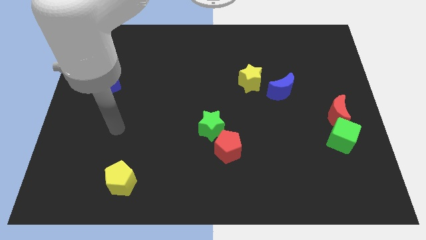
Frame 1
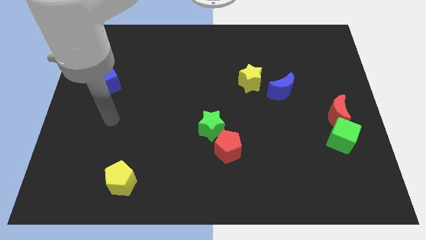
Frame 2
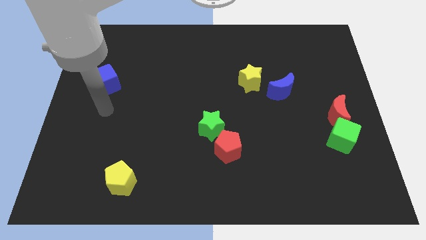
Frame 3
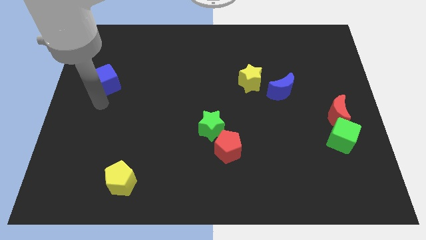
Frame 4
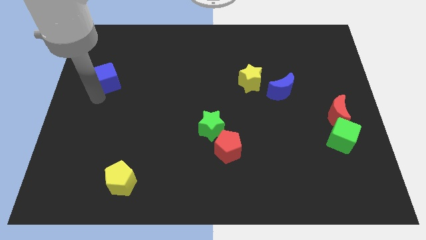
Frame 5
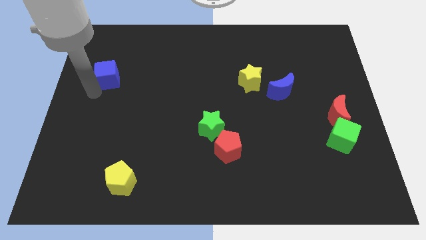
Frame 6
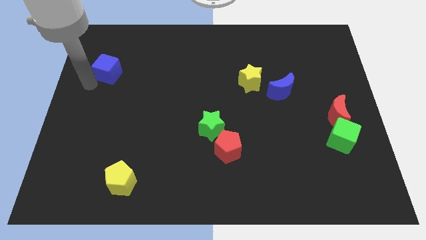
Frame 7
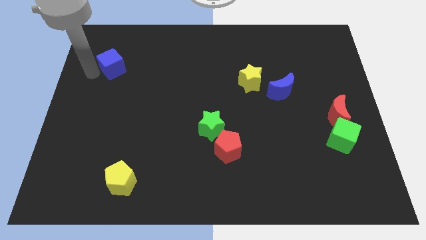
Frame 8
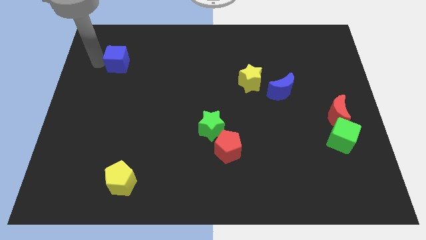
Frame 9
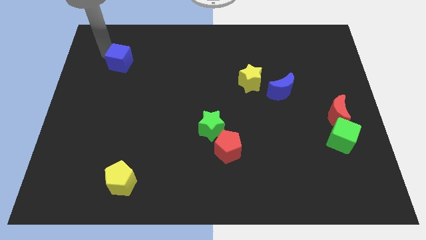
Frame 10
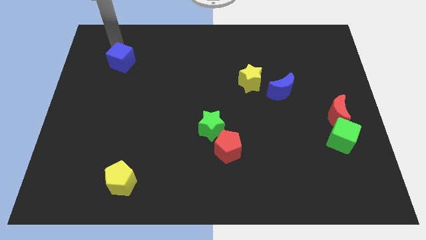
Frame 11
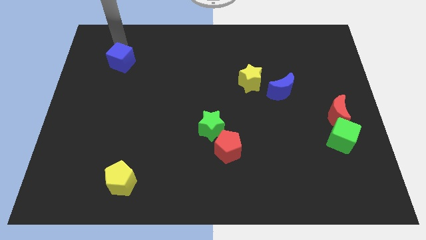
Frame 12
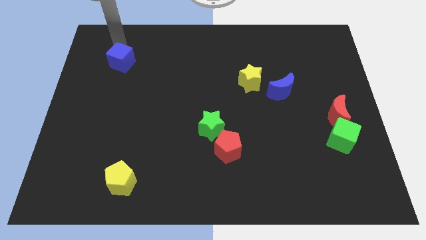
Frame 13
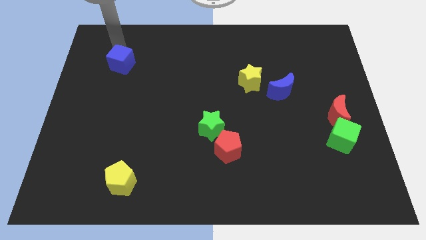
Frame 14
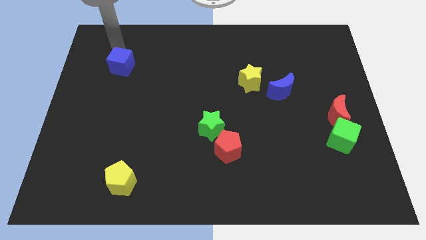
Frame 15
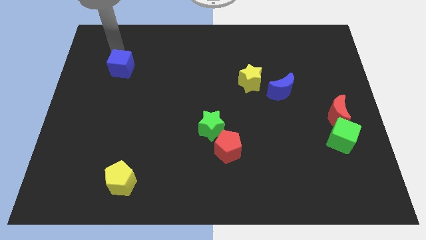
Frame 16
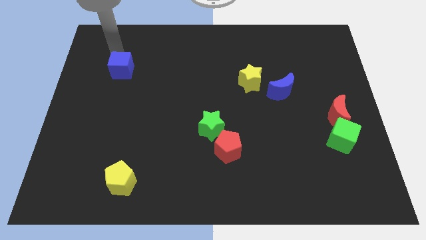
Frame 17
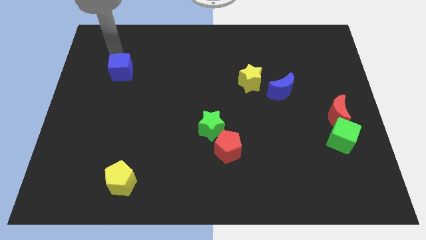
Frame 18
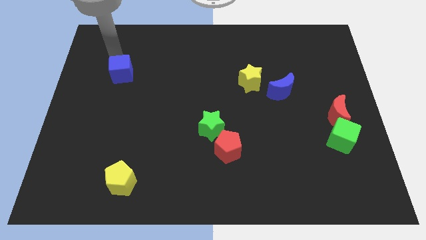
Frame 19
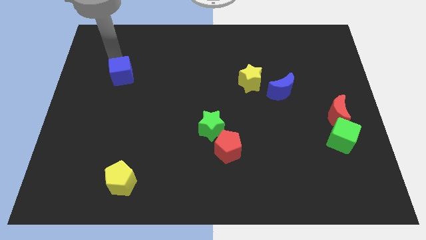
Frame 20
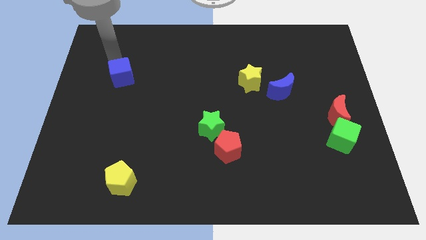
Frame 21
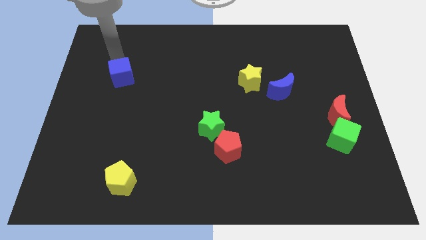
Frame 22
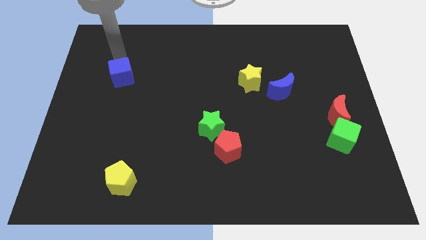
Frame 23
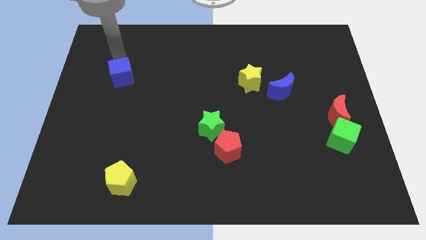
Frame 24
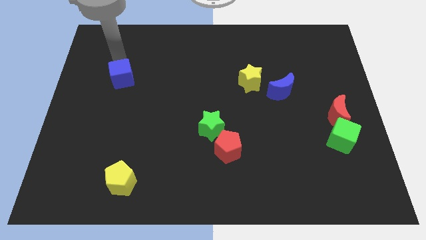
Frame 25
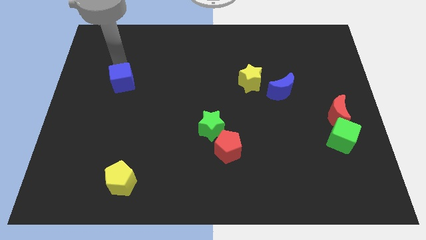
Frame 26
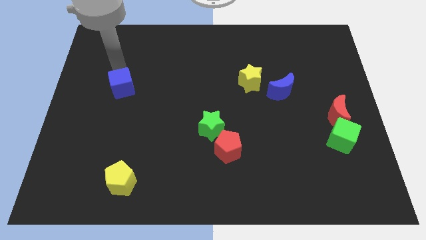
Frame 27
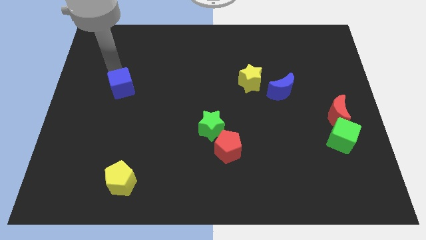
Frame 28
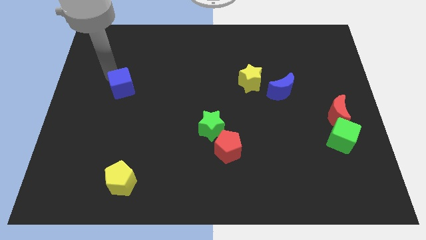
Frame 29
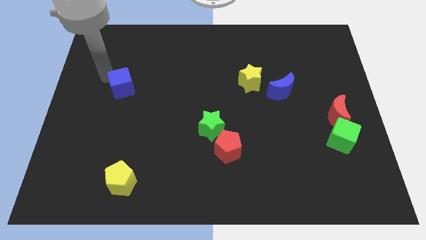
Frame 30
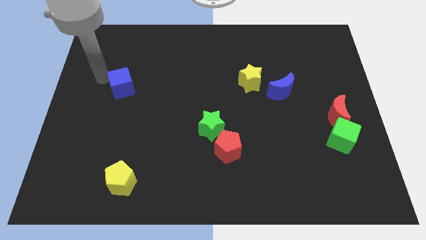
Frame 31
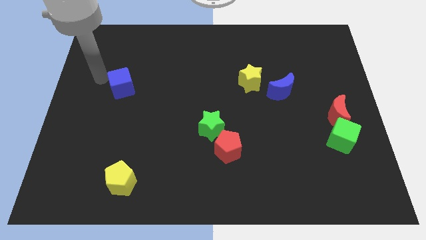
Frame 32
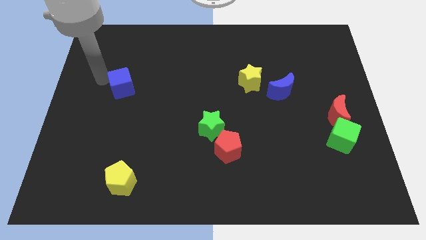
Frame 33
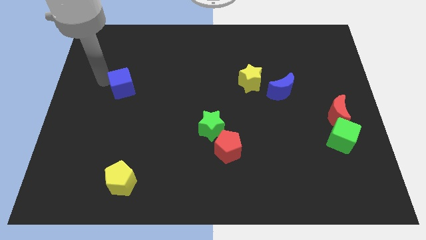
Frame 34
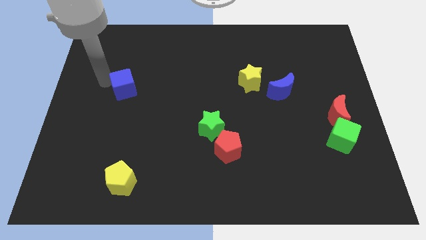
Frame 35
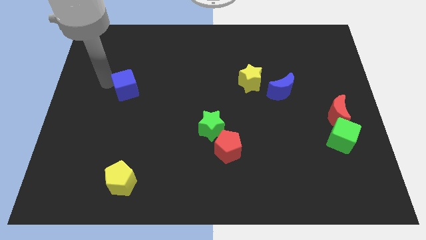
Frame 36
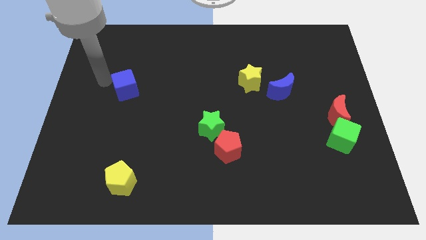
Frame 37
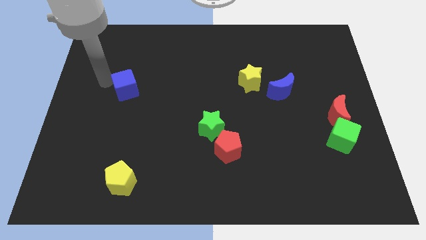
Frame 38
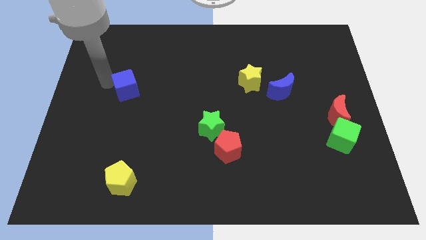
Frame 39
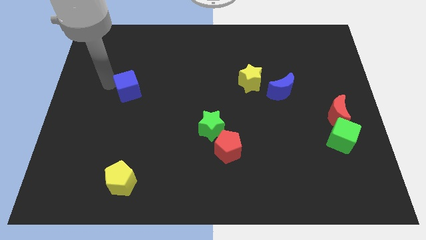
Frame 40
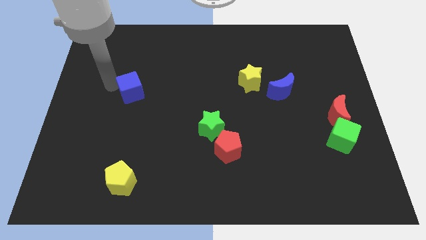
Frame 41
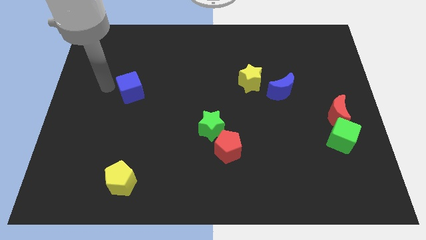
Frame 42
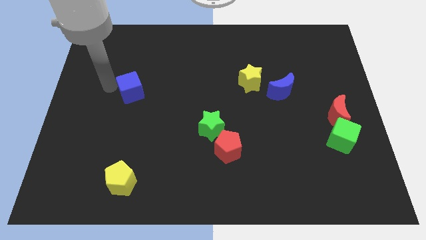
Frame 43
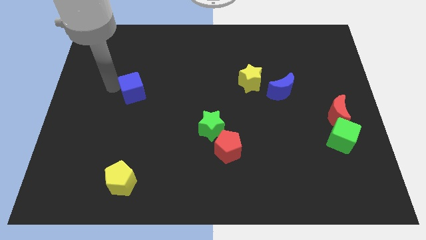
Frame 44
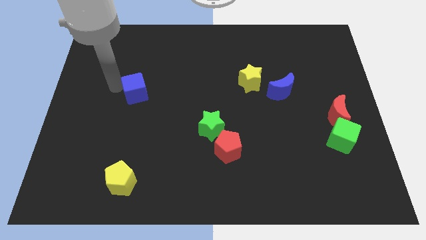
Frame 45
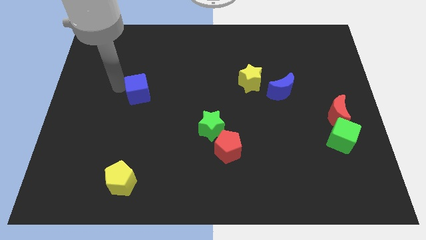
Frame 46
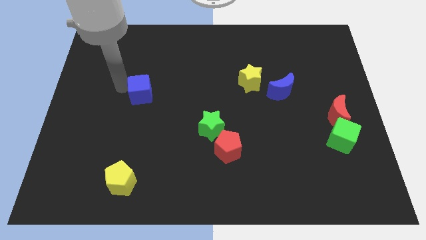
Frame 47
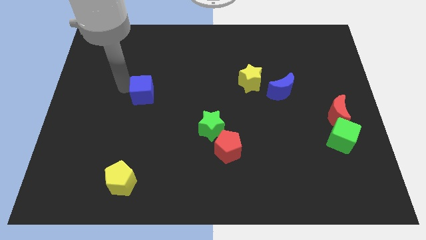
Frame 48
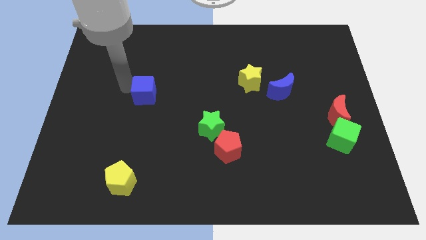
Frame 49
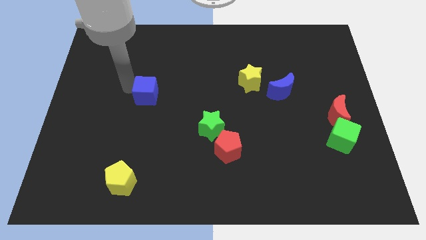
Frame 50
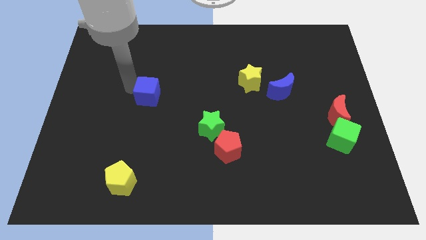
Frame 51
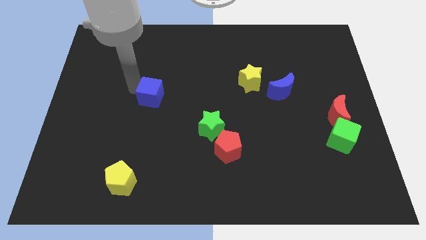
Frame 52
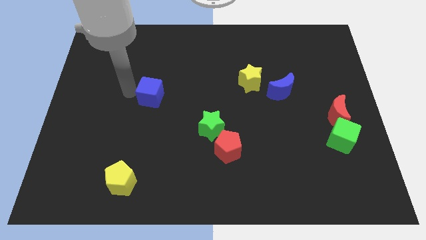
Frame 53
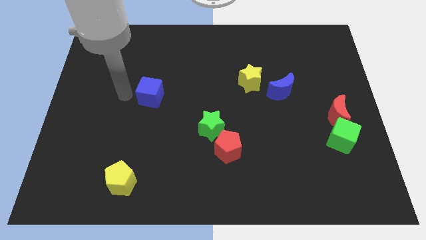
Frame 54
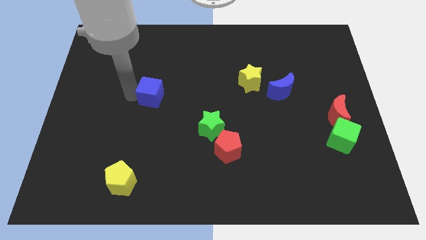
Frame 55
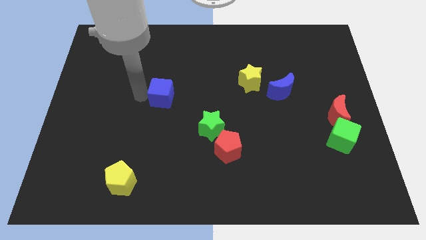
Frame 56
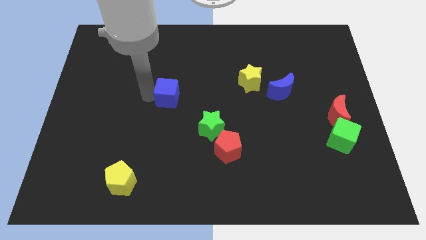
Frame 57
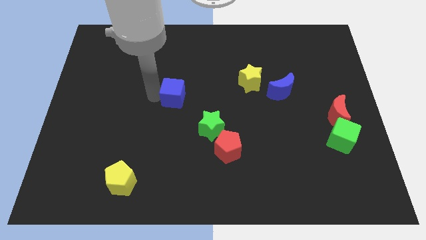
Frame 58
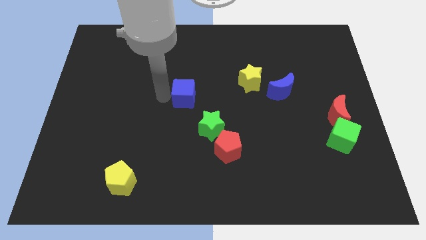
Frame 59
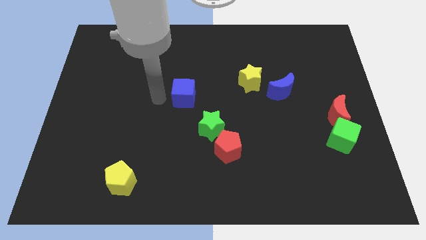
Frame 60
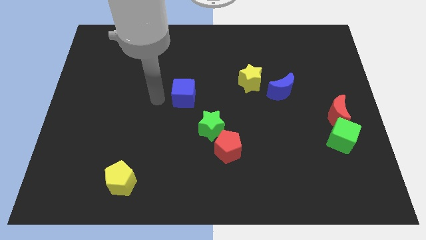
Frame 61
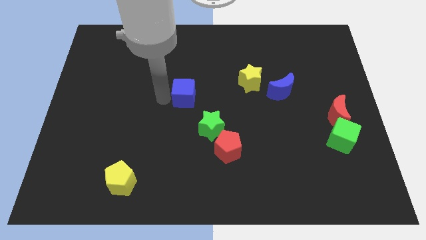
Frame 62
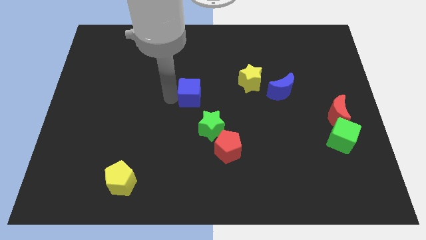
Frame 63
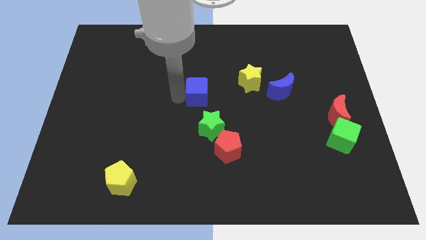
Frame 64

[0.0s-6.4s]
move the blue cube above the green star

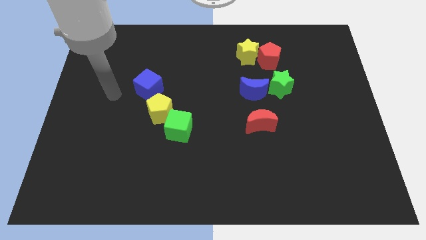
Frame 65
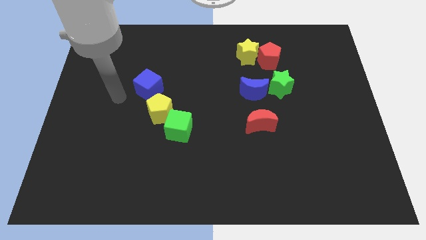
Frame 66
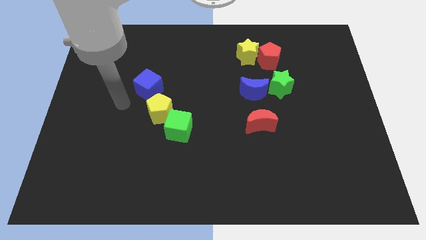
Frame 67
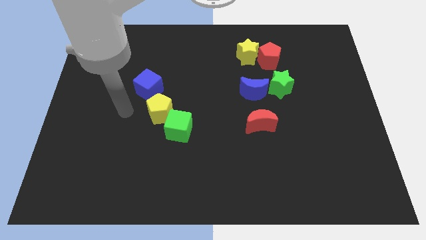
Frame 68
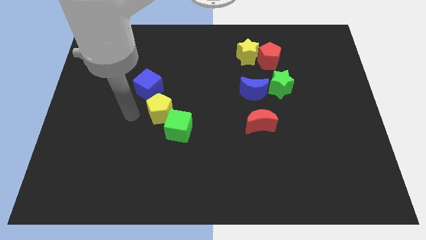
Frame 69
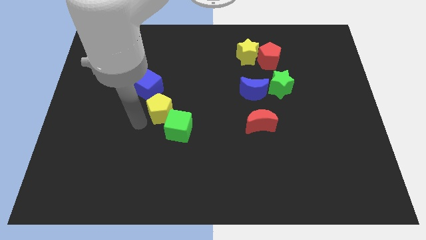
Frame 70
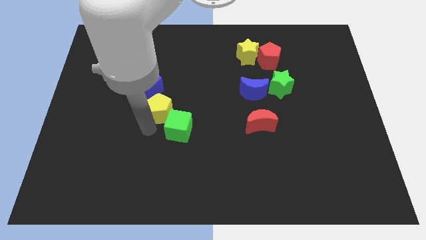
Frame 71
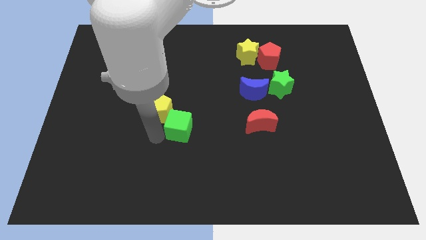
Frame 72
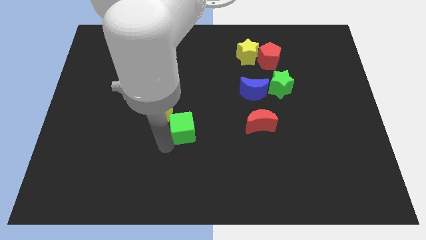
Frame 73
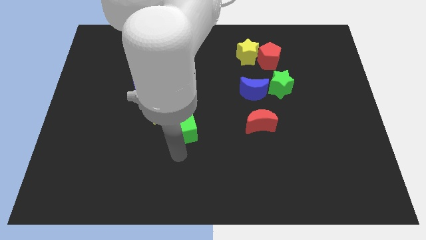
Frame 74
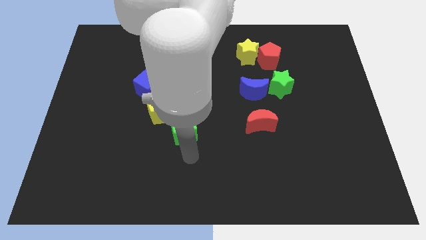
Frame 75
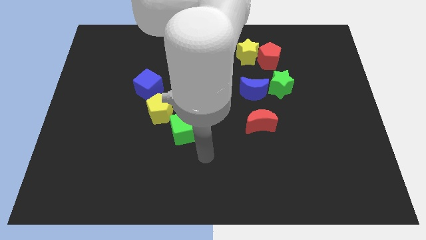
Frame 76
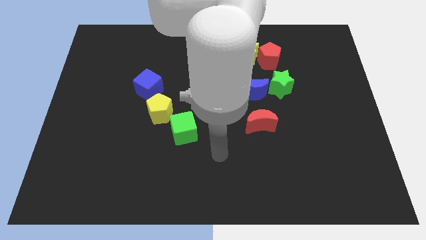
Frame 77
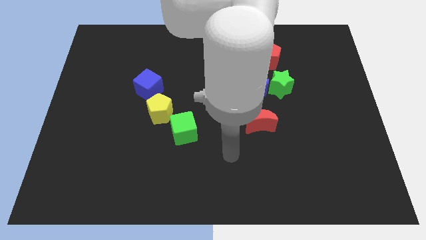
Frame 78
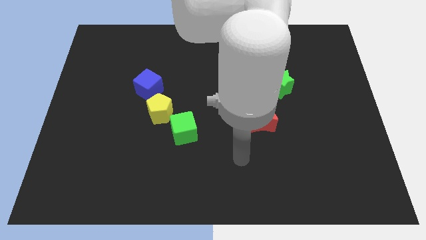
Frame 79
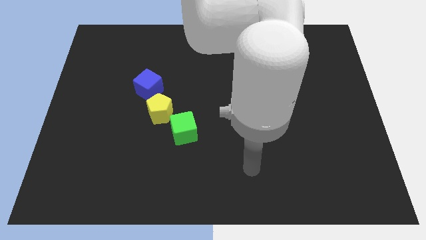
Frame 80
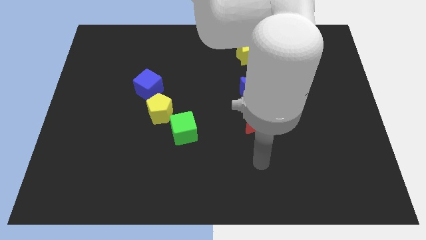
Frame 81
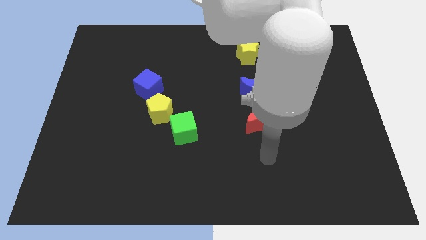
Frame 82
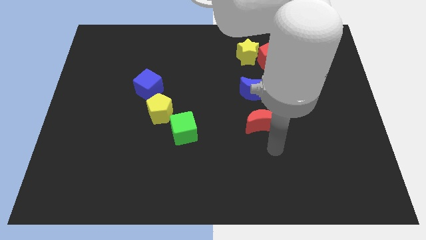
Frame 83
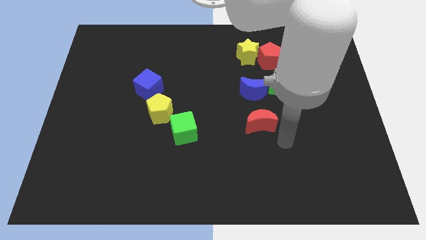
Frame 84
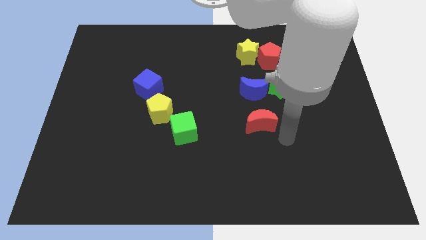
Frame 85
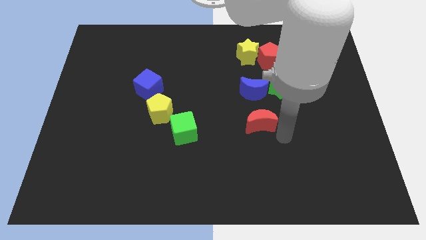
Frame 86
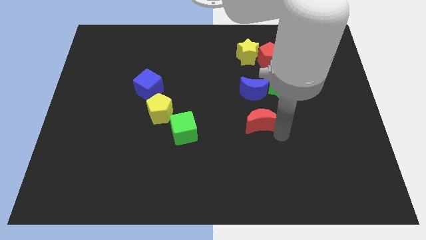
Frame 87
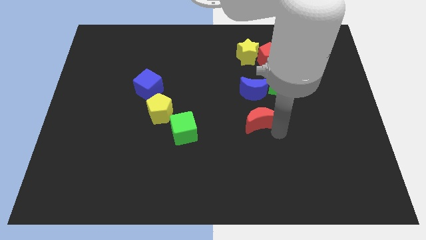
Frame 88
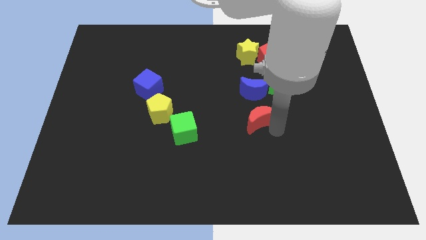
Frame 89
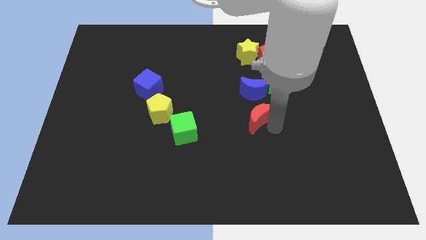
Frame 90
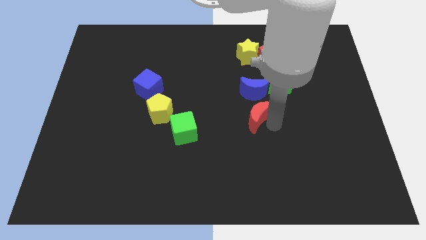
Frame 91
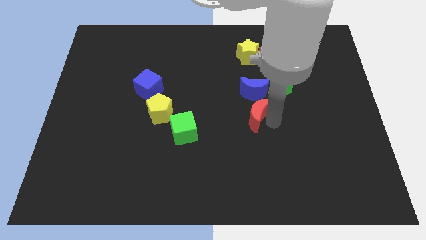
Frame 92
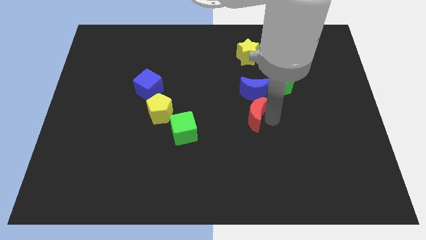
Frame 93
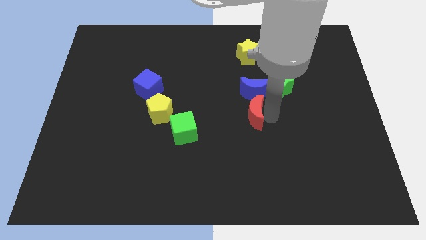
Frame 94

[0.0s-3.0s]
push the red moon to the bottom left of the blue moon
